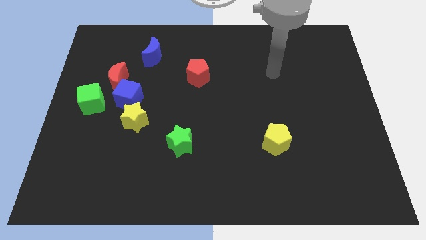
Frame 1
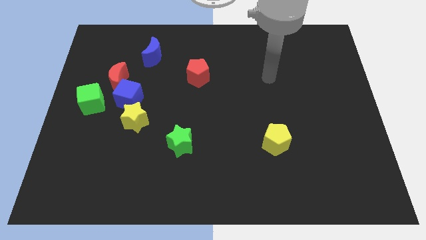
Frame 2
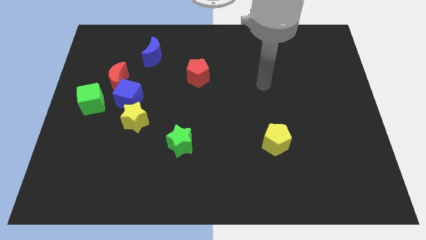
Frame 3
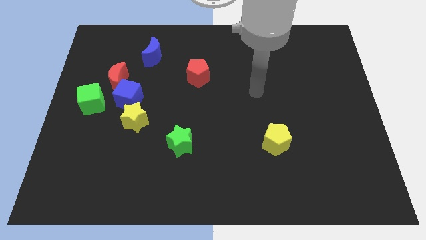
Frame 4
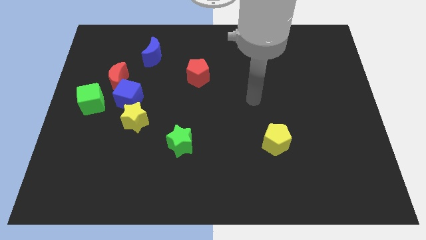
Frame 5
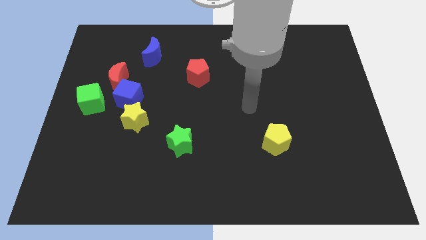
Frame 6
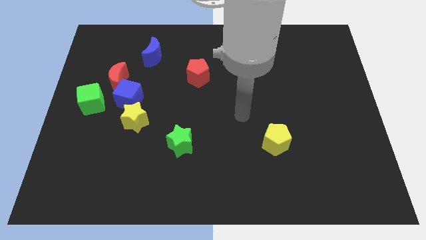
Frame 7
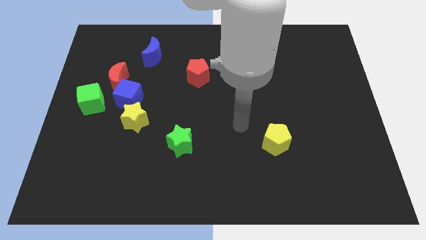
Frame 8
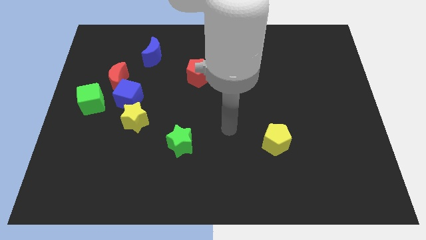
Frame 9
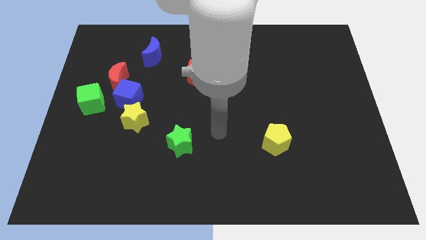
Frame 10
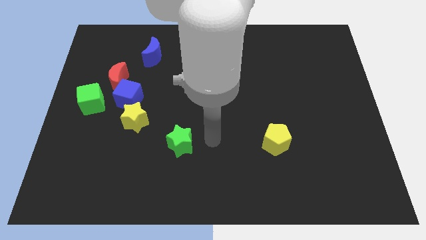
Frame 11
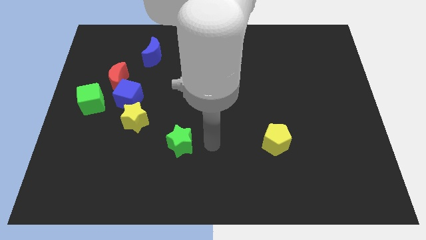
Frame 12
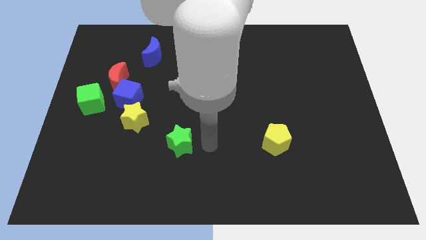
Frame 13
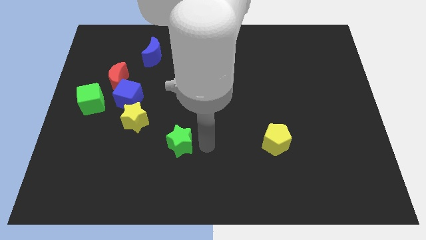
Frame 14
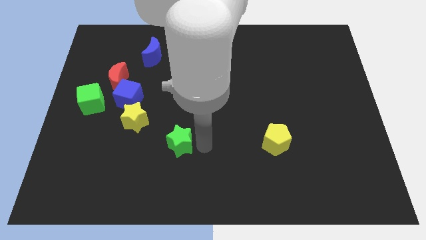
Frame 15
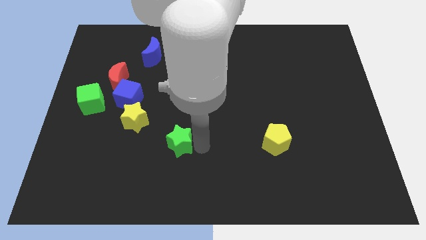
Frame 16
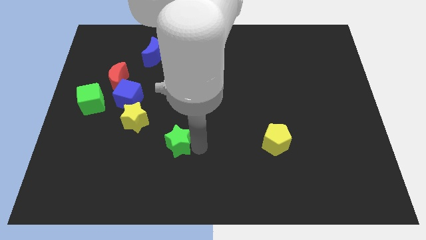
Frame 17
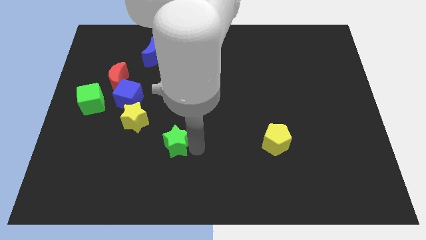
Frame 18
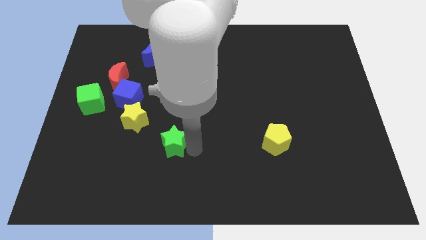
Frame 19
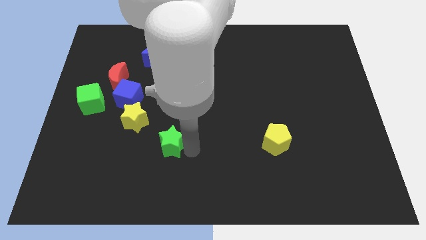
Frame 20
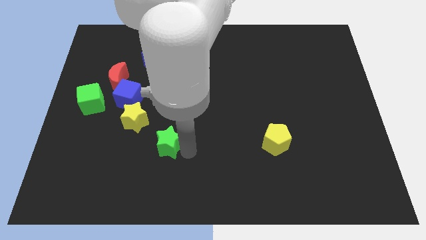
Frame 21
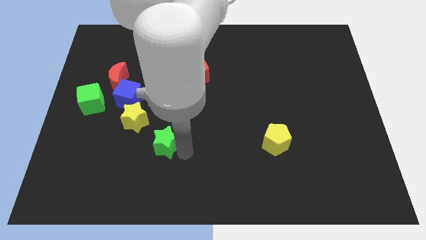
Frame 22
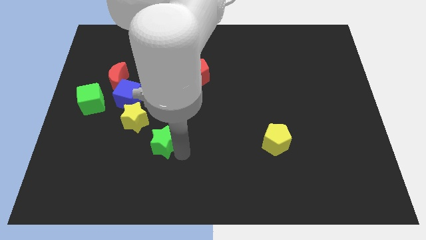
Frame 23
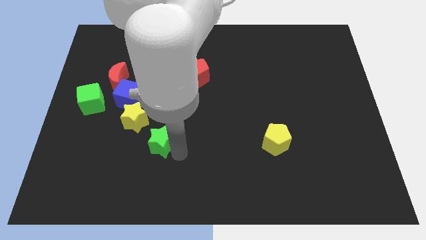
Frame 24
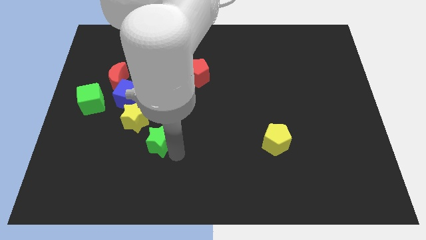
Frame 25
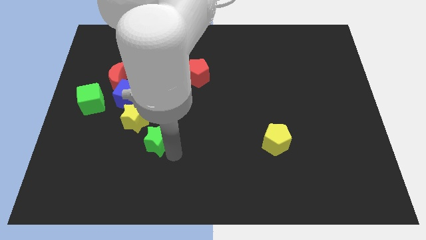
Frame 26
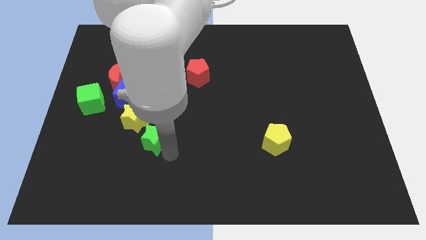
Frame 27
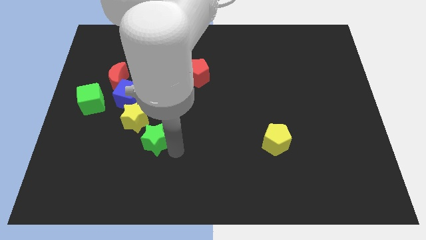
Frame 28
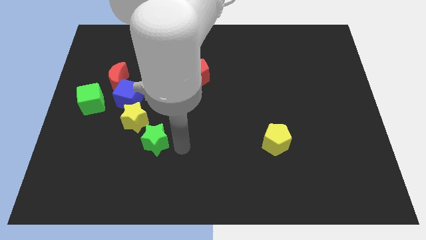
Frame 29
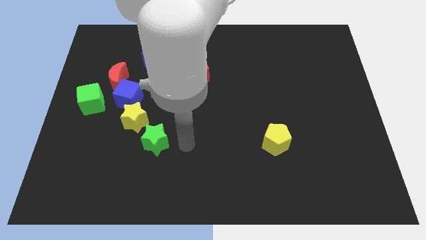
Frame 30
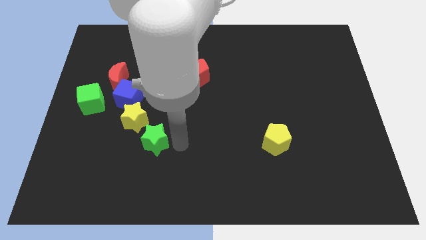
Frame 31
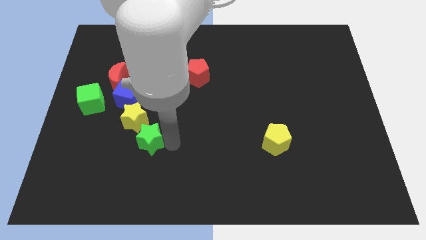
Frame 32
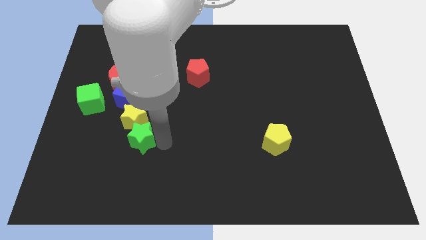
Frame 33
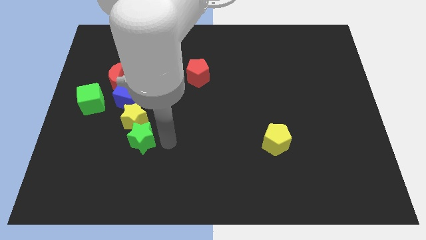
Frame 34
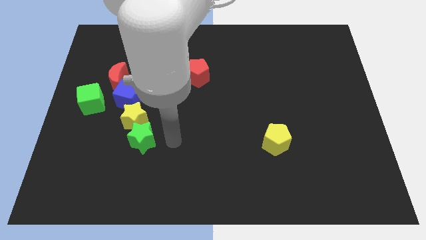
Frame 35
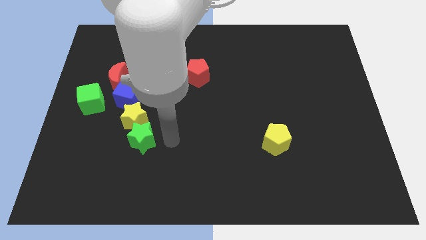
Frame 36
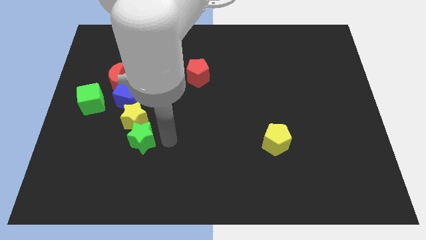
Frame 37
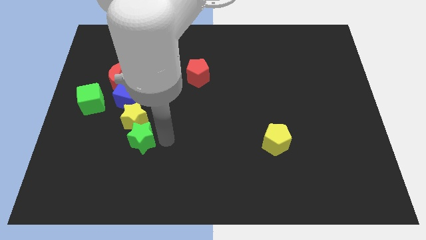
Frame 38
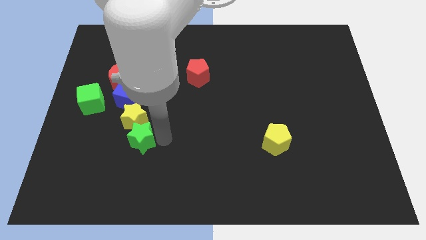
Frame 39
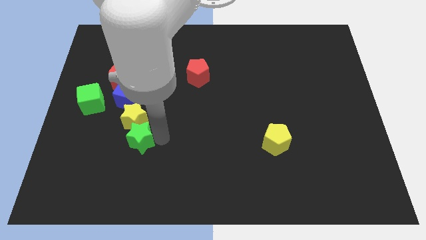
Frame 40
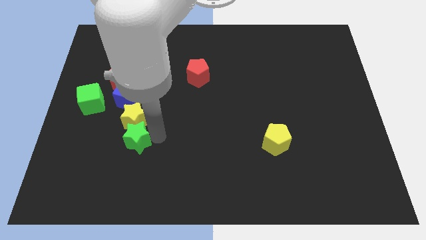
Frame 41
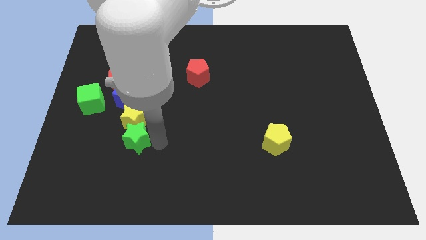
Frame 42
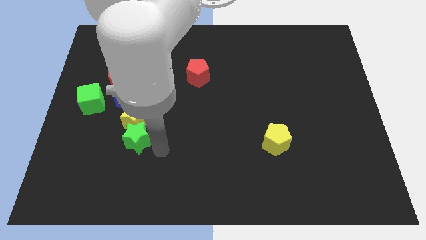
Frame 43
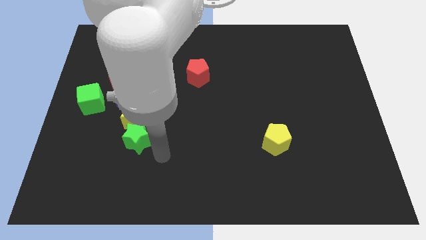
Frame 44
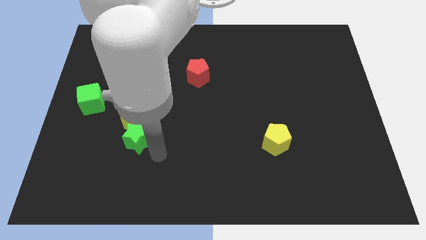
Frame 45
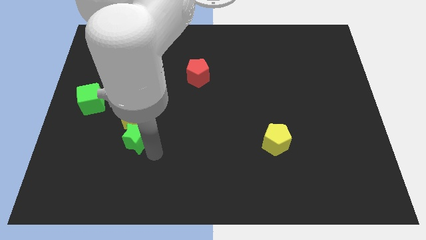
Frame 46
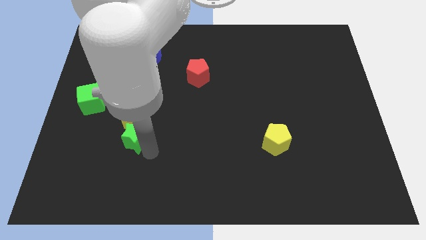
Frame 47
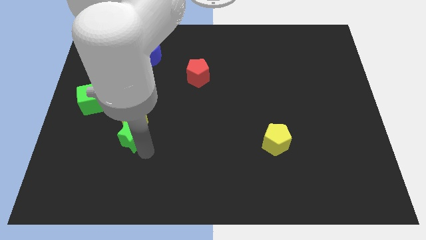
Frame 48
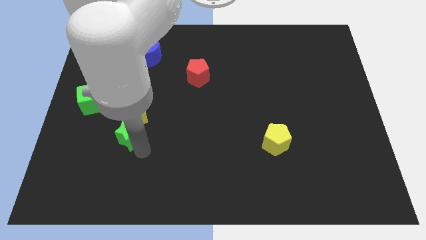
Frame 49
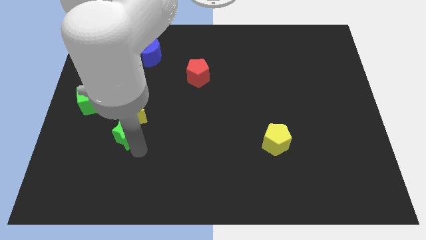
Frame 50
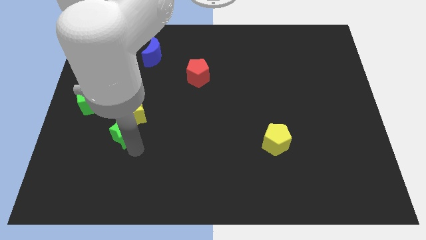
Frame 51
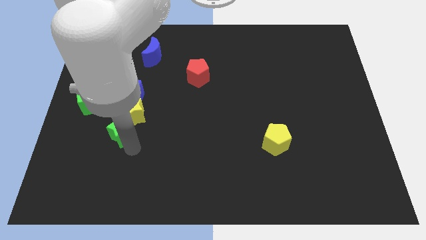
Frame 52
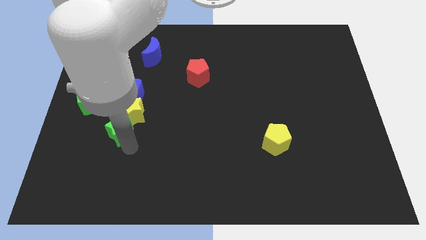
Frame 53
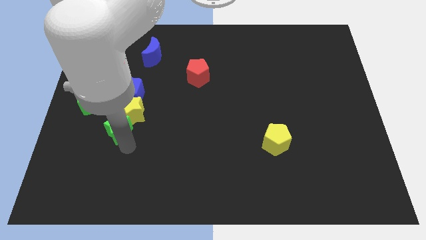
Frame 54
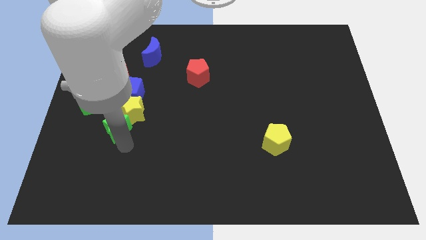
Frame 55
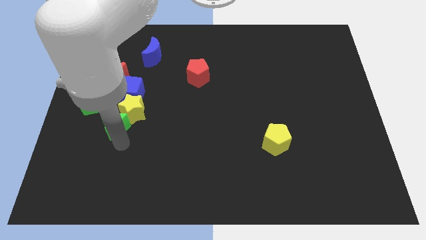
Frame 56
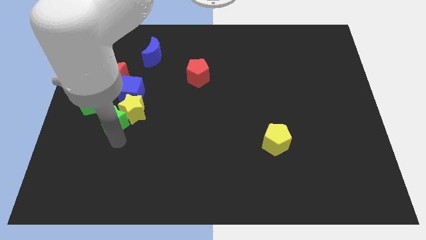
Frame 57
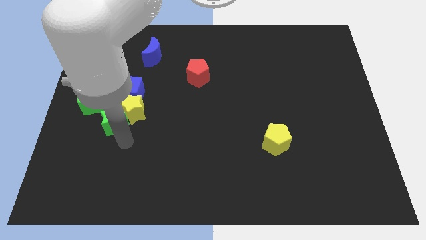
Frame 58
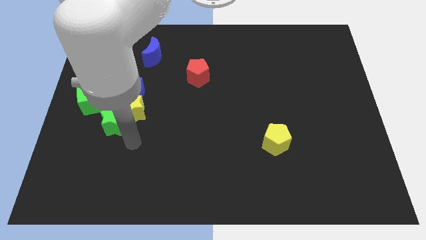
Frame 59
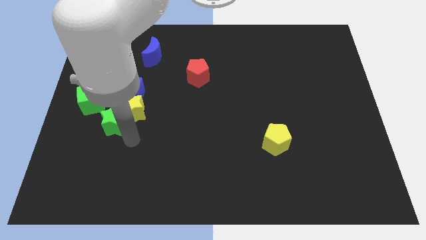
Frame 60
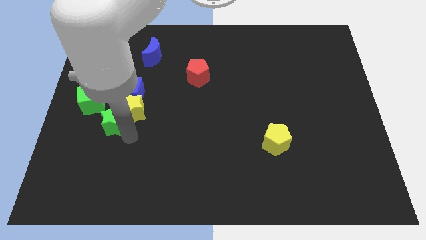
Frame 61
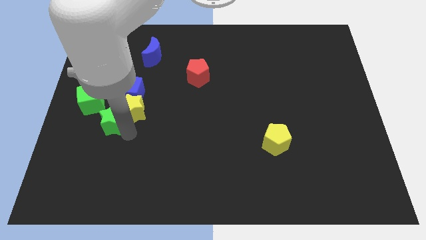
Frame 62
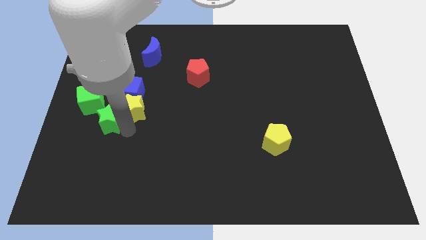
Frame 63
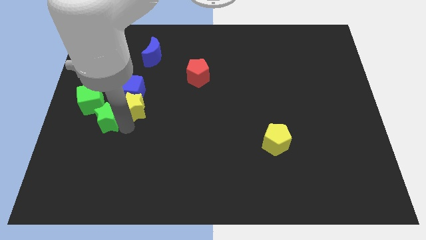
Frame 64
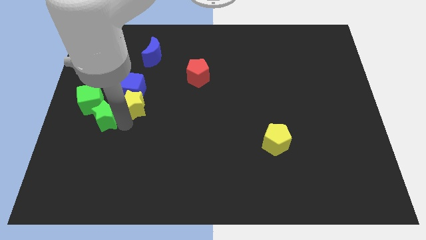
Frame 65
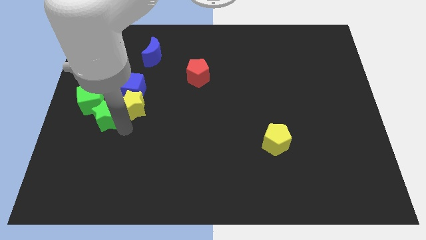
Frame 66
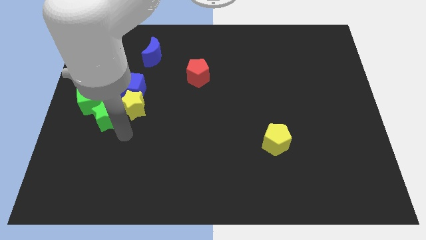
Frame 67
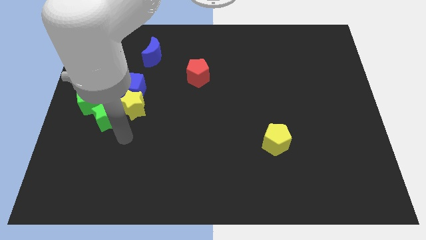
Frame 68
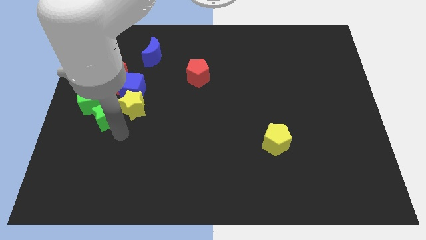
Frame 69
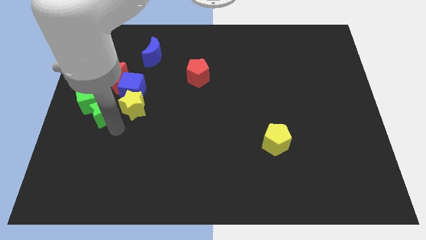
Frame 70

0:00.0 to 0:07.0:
slide the green star towards the green cube

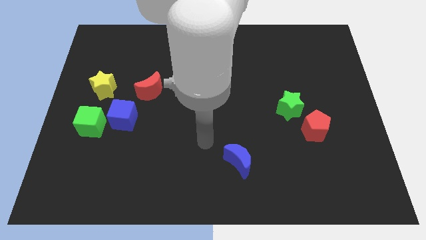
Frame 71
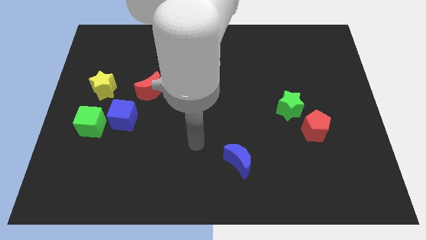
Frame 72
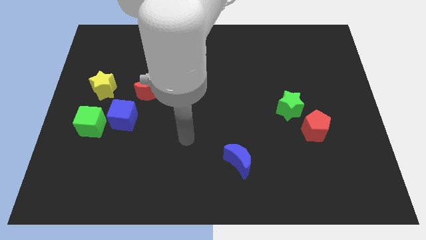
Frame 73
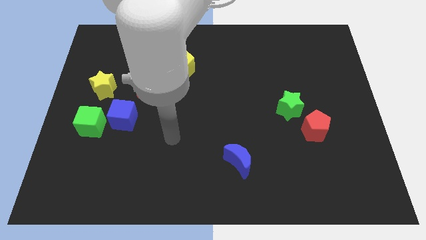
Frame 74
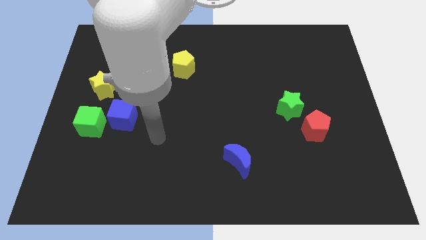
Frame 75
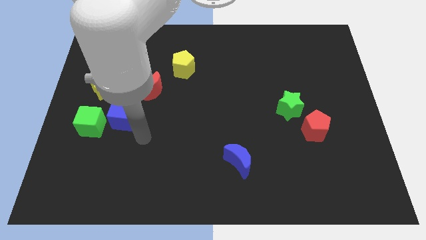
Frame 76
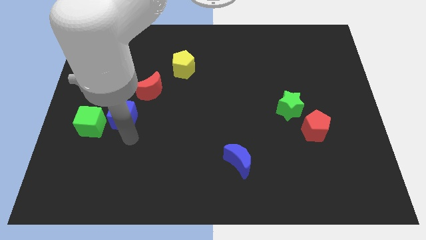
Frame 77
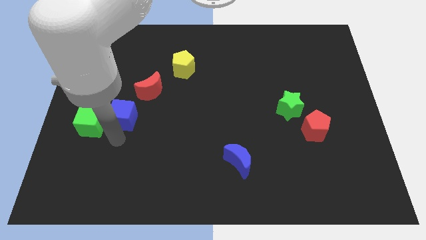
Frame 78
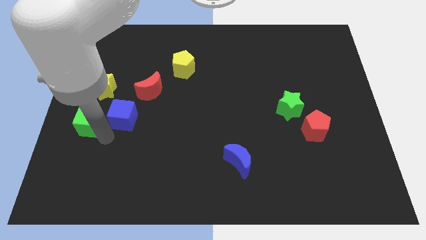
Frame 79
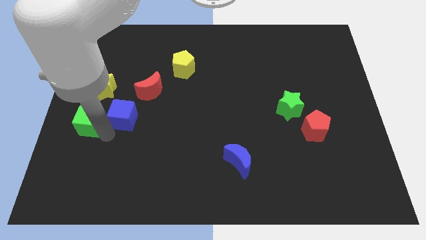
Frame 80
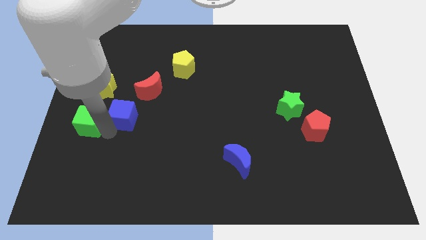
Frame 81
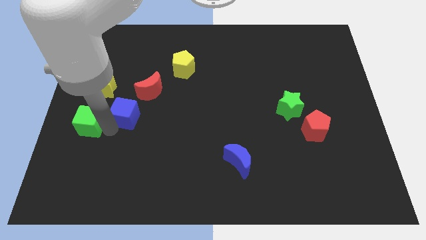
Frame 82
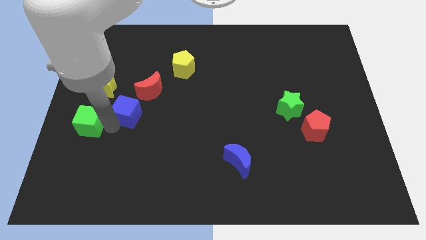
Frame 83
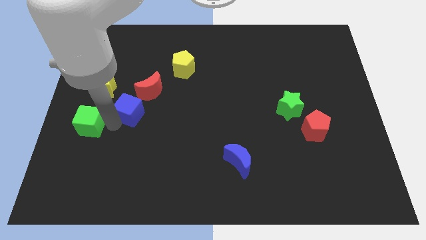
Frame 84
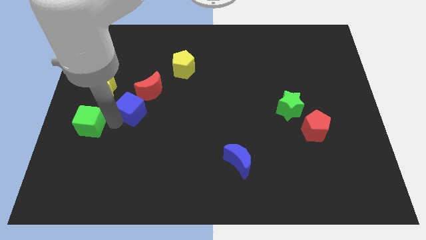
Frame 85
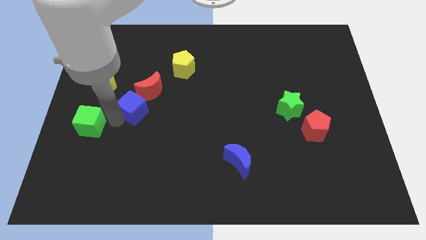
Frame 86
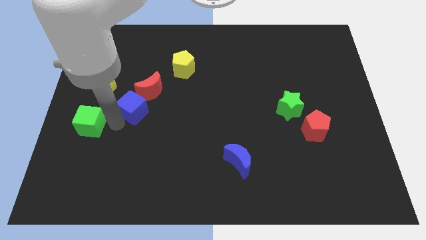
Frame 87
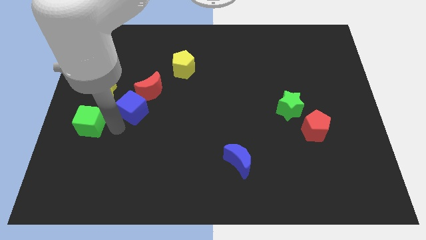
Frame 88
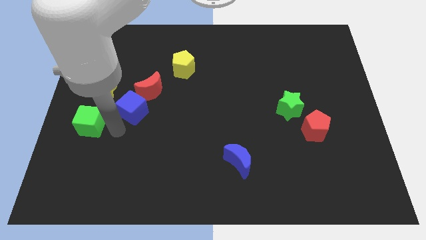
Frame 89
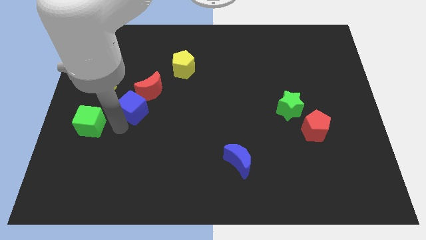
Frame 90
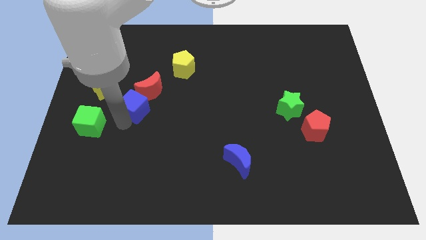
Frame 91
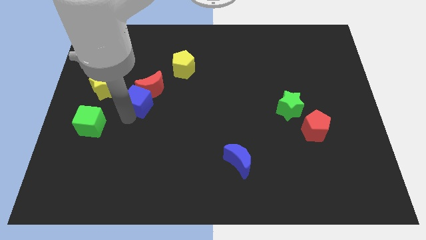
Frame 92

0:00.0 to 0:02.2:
push the blue cube close to the red moon
